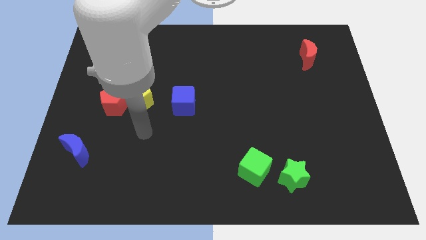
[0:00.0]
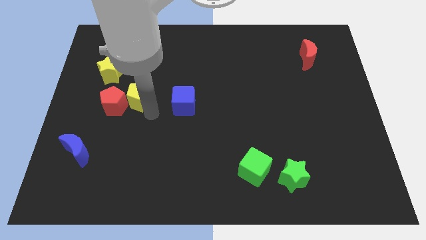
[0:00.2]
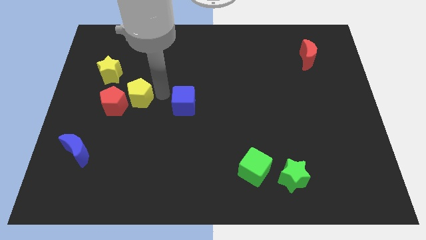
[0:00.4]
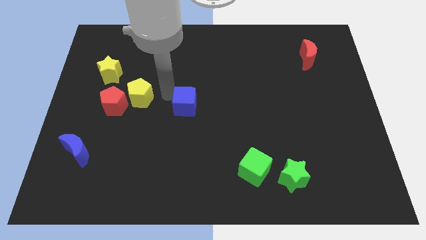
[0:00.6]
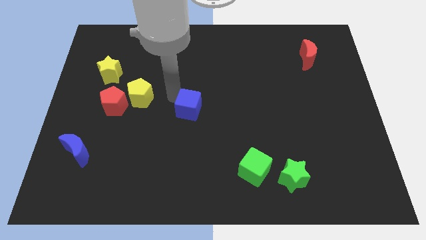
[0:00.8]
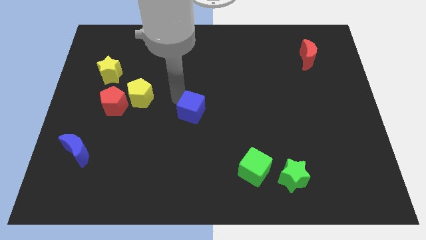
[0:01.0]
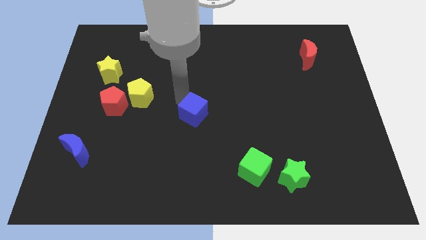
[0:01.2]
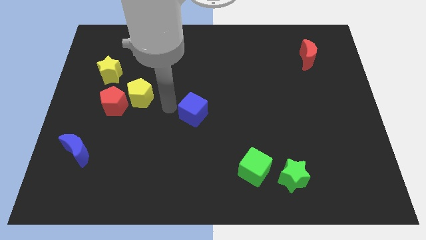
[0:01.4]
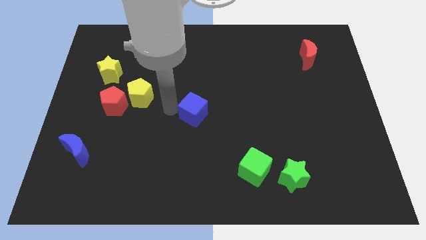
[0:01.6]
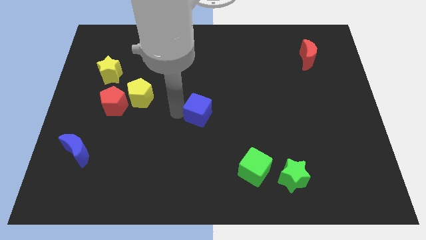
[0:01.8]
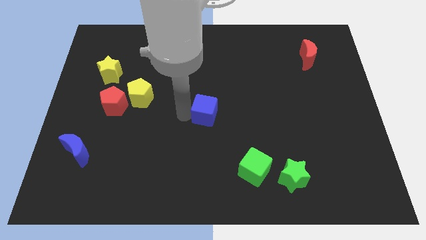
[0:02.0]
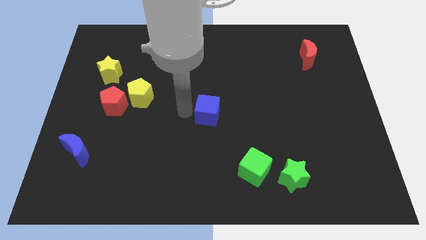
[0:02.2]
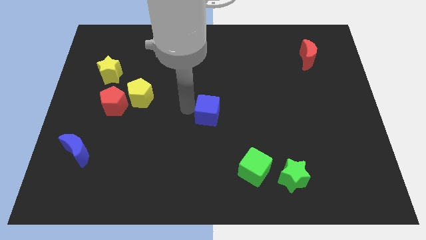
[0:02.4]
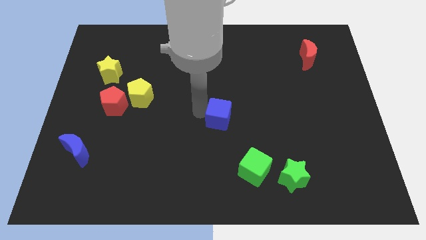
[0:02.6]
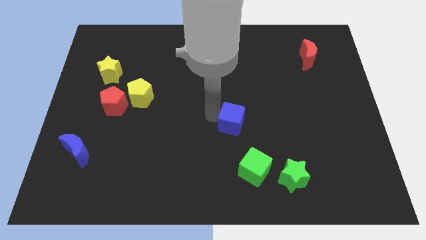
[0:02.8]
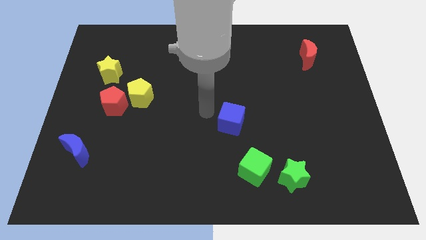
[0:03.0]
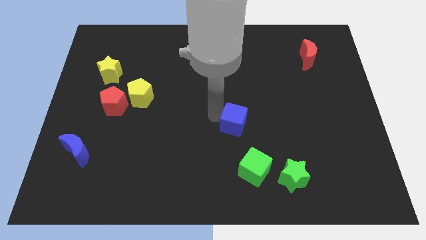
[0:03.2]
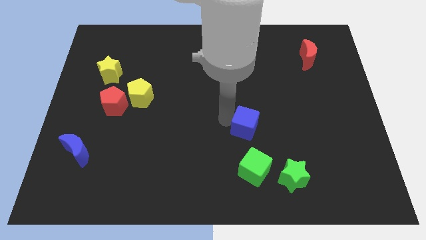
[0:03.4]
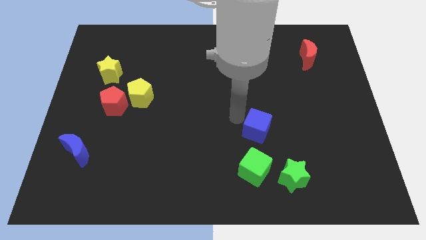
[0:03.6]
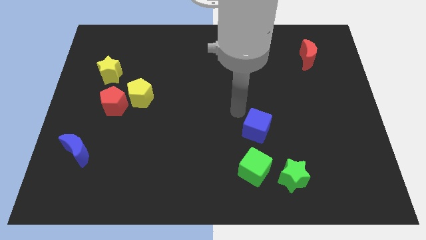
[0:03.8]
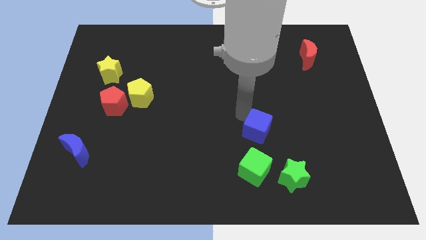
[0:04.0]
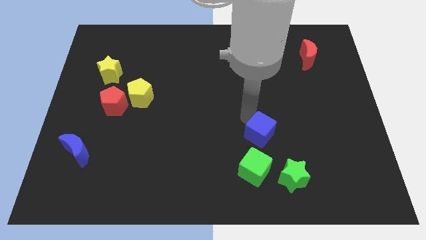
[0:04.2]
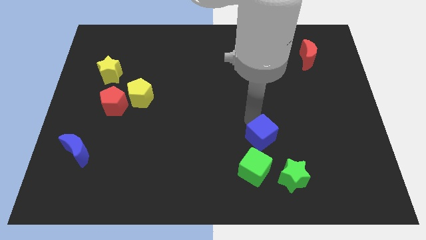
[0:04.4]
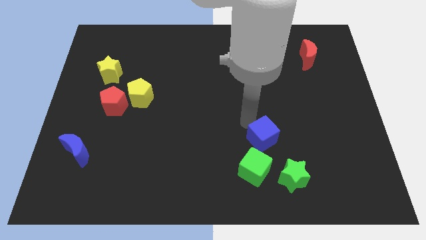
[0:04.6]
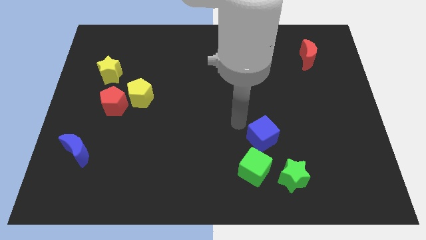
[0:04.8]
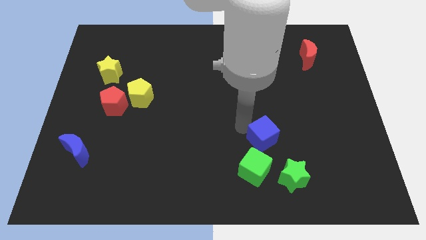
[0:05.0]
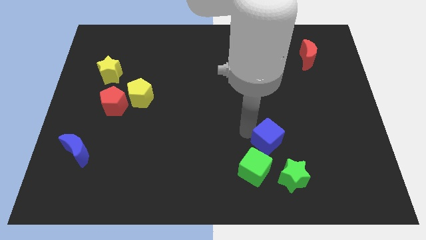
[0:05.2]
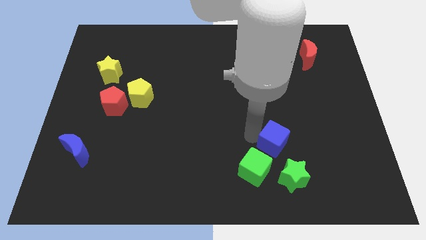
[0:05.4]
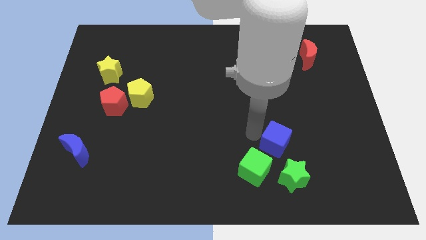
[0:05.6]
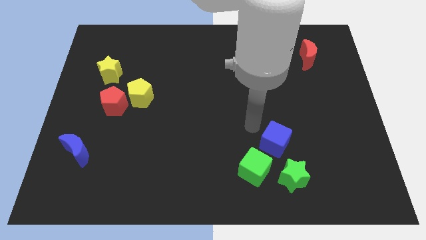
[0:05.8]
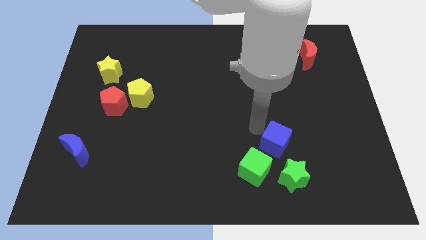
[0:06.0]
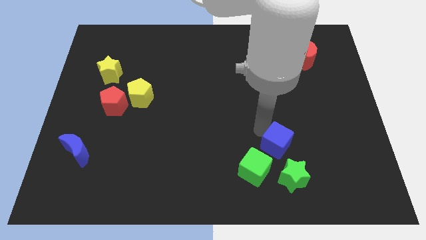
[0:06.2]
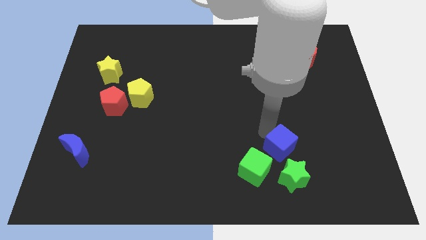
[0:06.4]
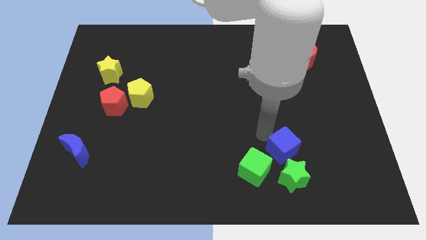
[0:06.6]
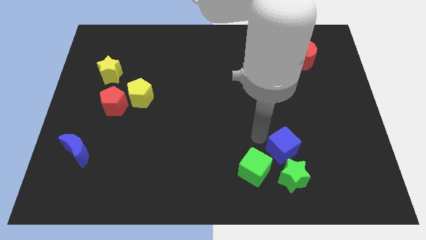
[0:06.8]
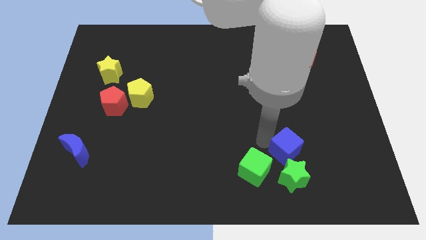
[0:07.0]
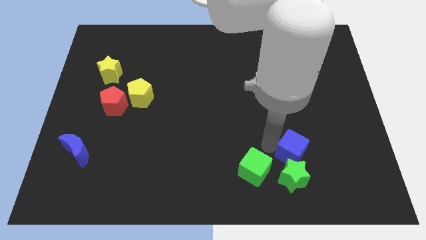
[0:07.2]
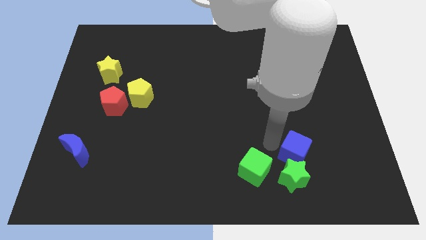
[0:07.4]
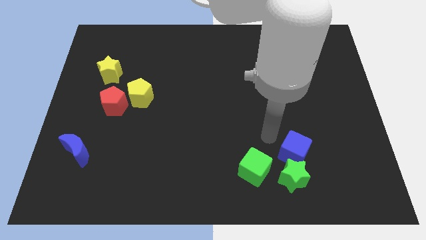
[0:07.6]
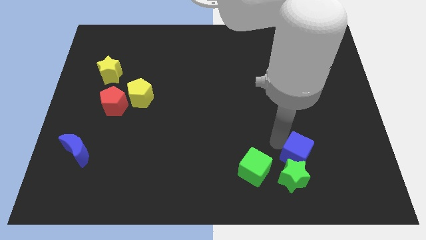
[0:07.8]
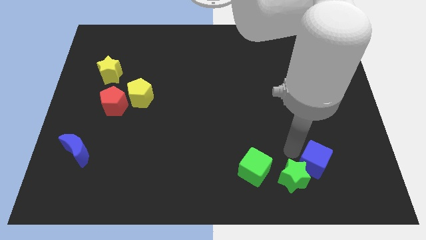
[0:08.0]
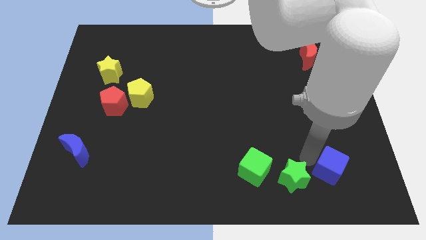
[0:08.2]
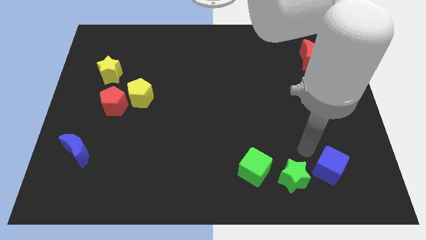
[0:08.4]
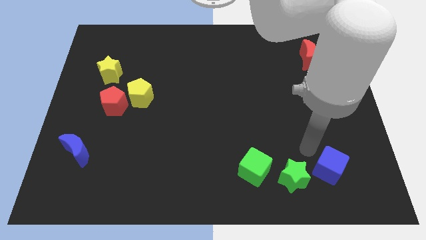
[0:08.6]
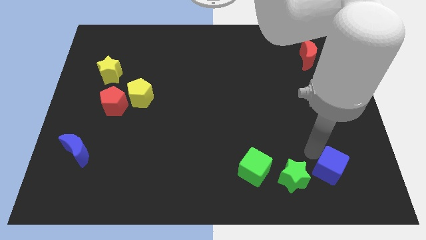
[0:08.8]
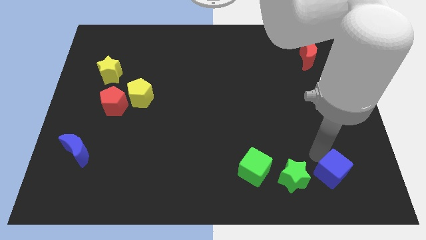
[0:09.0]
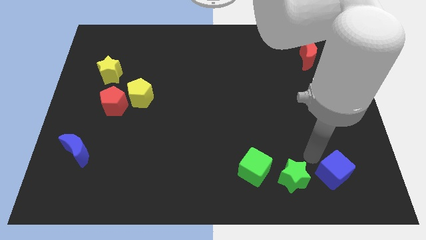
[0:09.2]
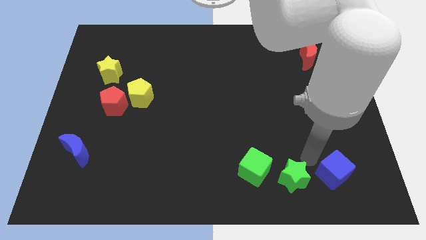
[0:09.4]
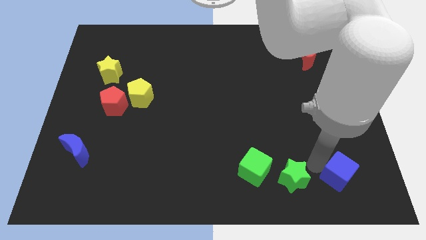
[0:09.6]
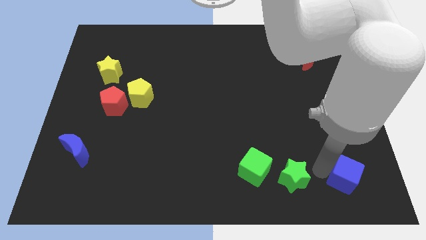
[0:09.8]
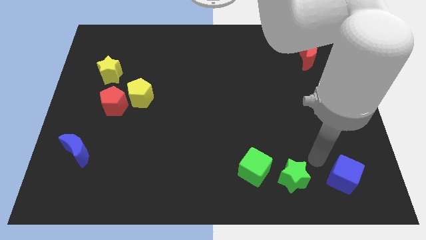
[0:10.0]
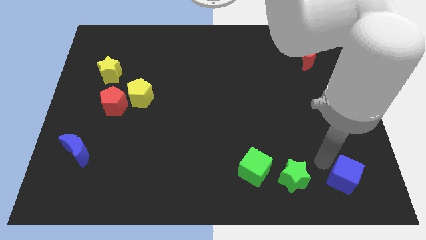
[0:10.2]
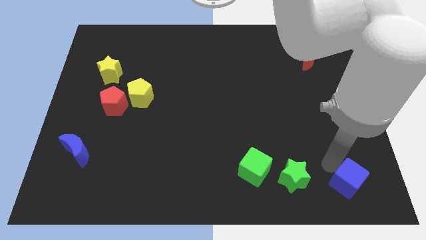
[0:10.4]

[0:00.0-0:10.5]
move the blue cube to the bottom right of the board
